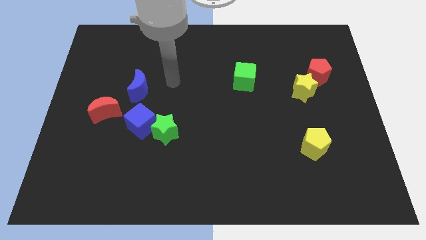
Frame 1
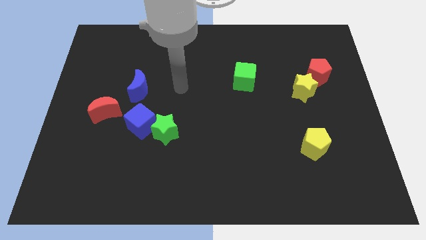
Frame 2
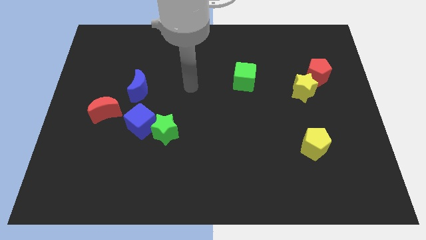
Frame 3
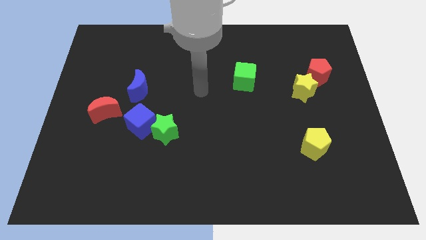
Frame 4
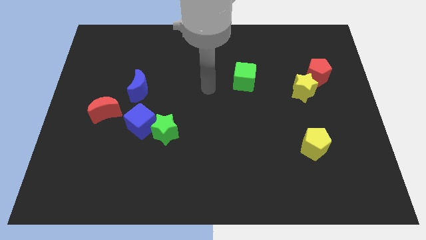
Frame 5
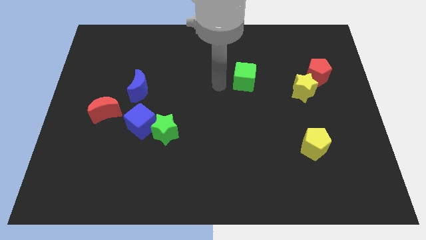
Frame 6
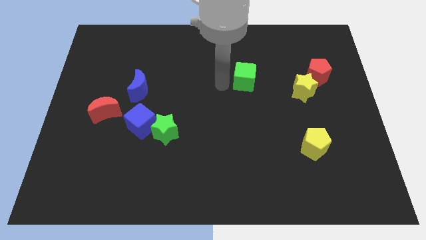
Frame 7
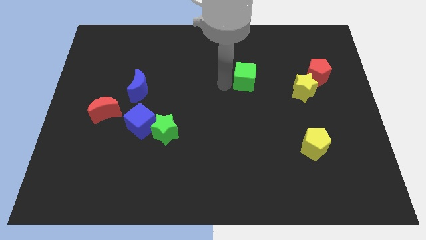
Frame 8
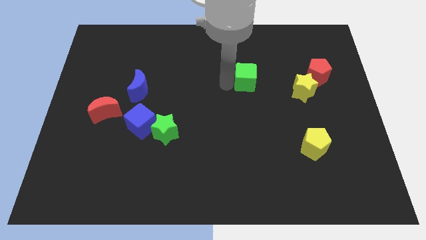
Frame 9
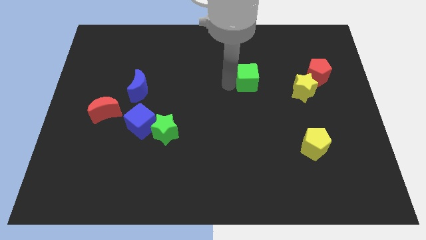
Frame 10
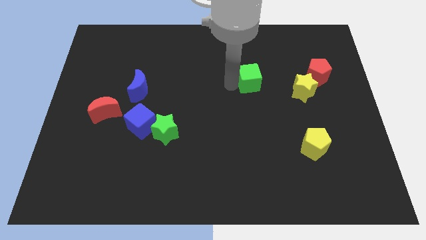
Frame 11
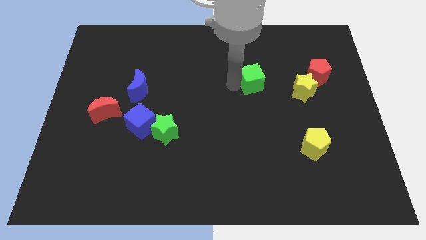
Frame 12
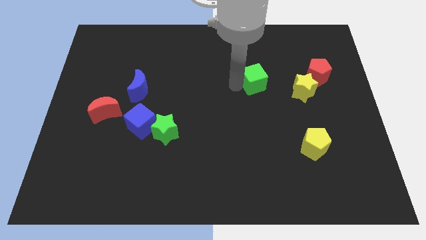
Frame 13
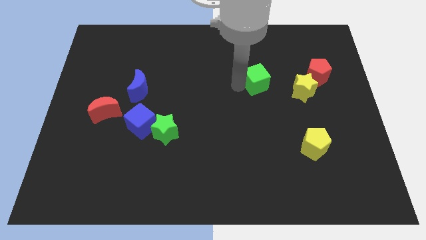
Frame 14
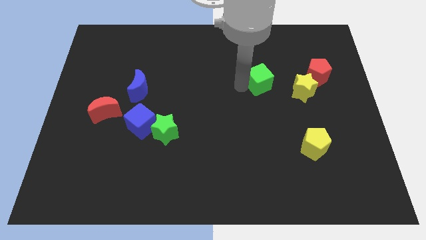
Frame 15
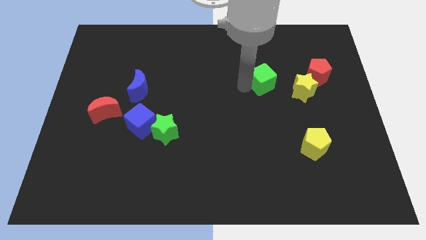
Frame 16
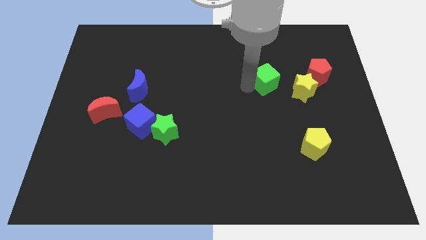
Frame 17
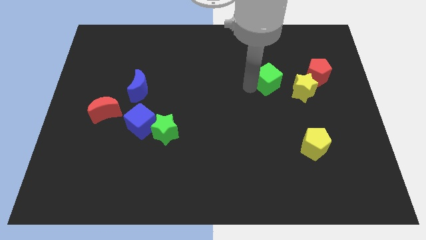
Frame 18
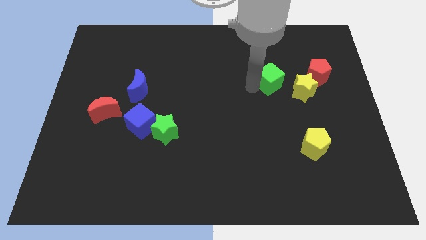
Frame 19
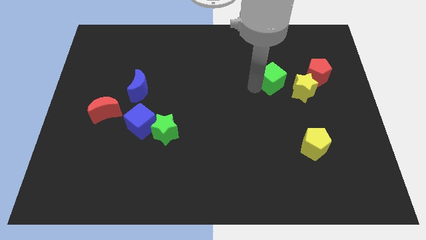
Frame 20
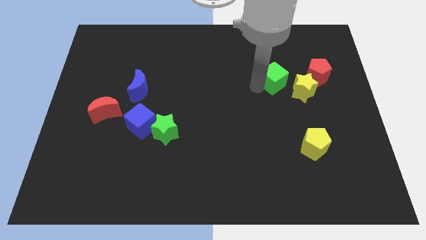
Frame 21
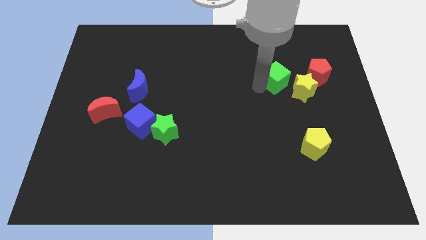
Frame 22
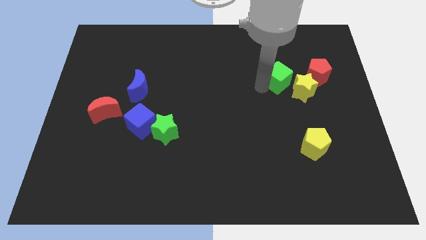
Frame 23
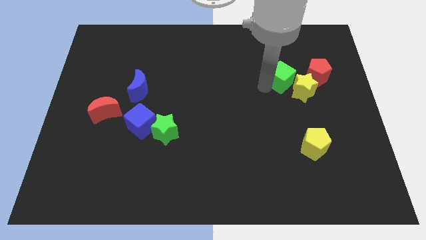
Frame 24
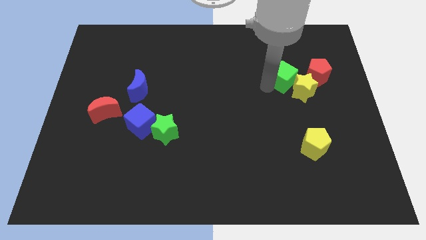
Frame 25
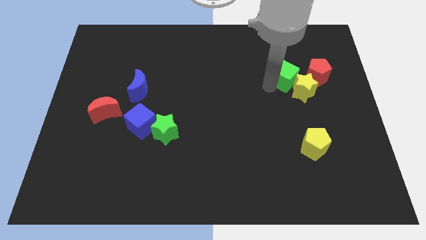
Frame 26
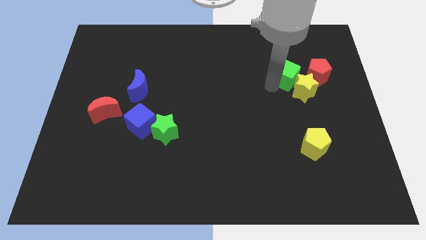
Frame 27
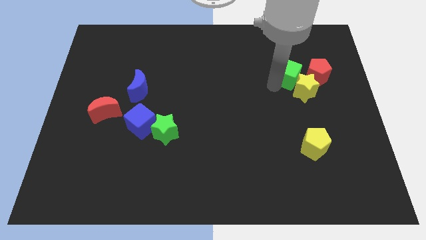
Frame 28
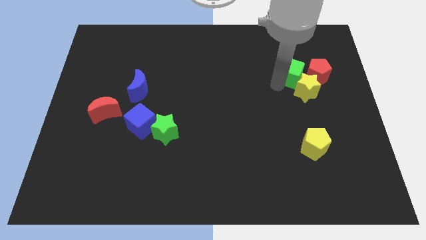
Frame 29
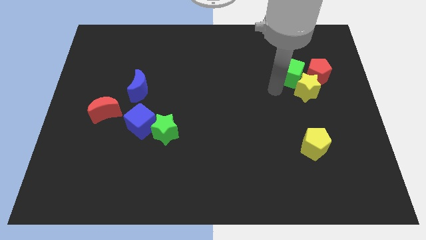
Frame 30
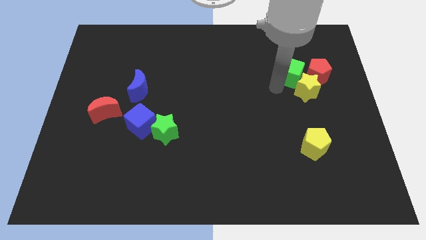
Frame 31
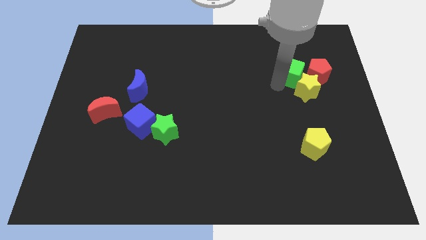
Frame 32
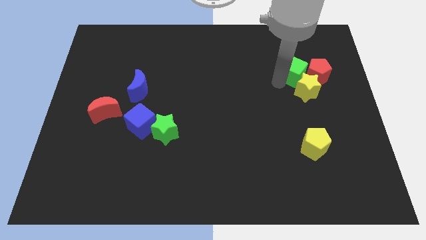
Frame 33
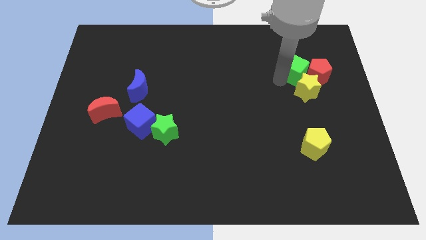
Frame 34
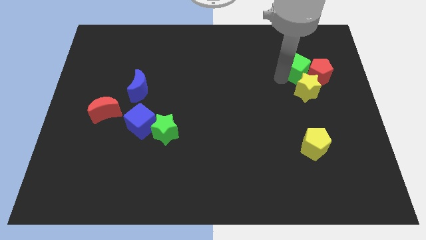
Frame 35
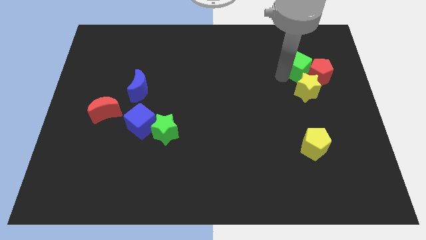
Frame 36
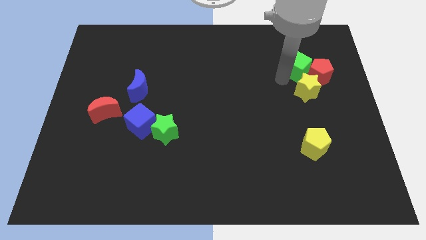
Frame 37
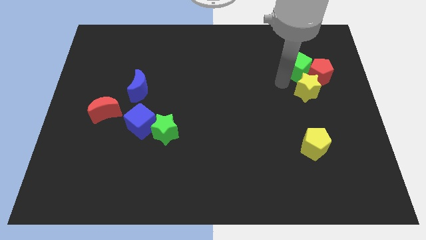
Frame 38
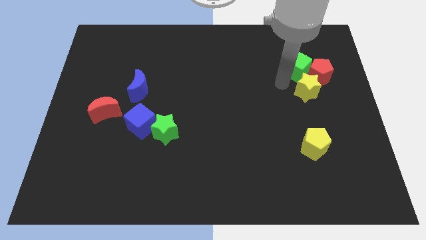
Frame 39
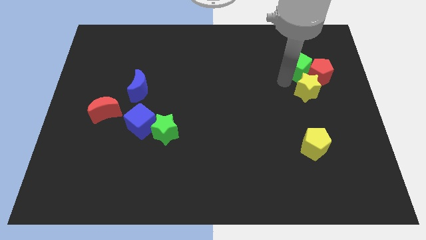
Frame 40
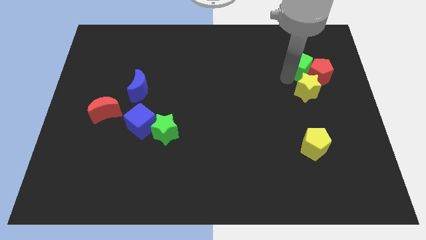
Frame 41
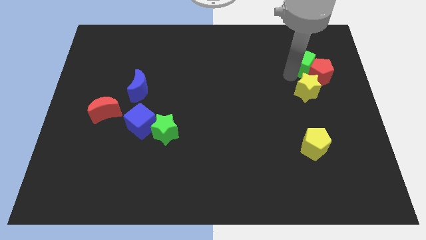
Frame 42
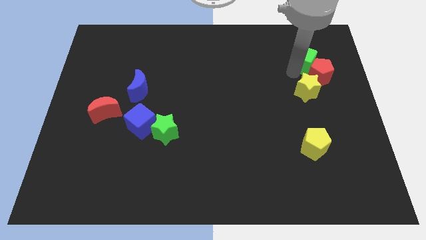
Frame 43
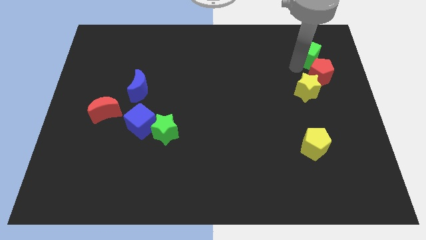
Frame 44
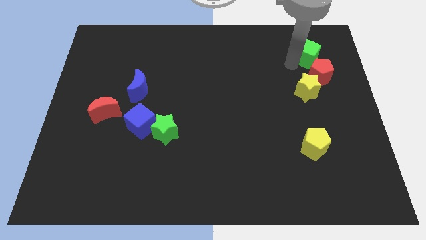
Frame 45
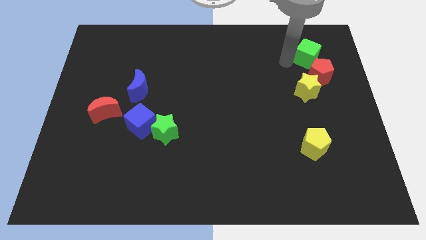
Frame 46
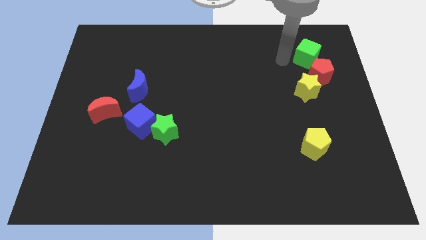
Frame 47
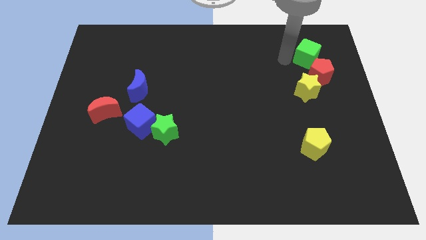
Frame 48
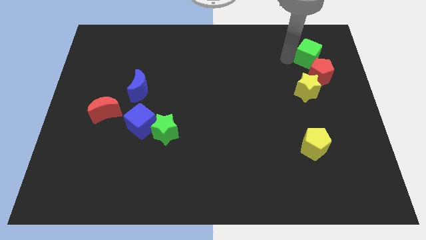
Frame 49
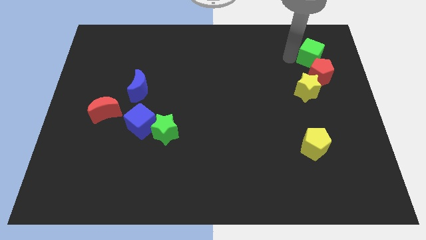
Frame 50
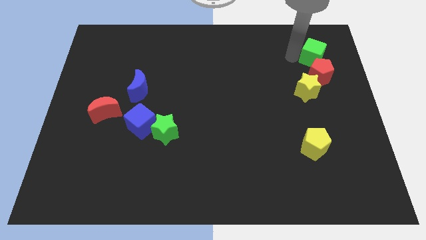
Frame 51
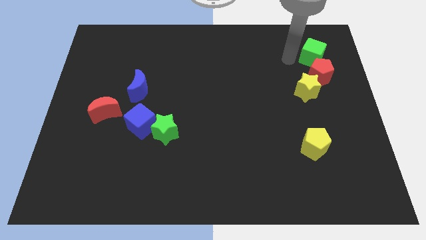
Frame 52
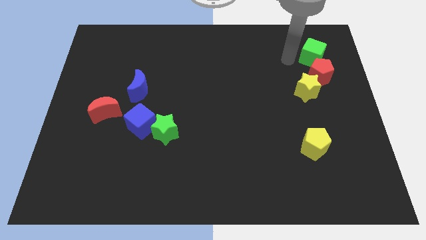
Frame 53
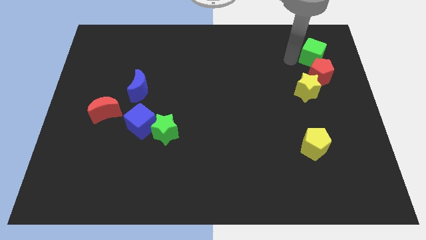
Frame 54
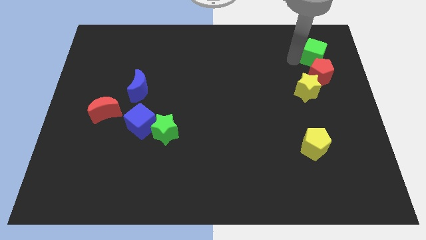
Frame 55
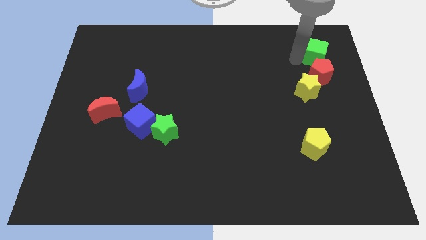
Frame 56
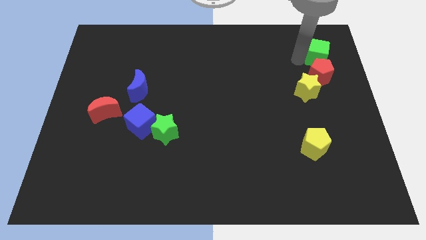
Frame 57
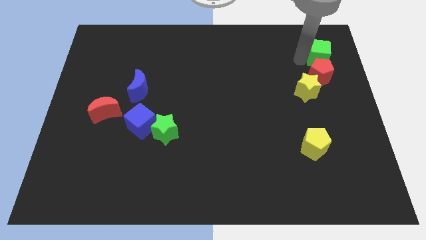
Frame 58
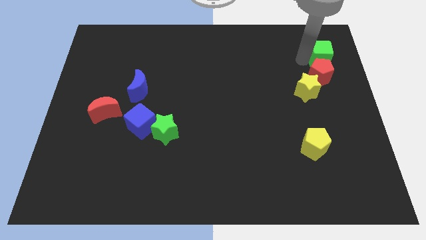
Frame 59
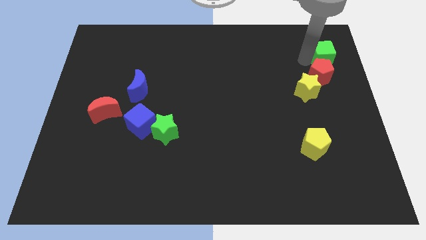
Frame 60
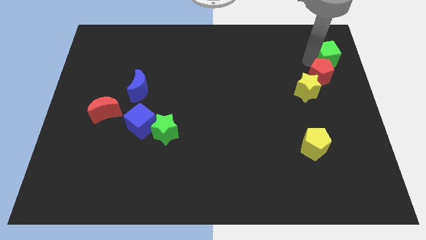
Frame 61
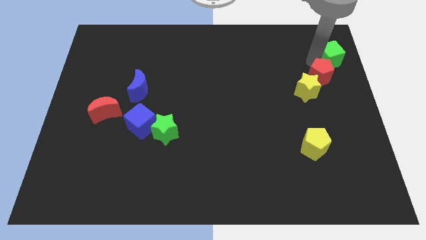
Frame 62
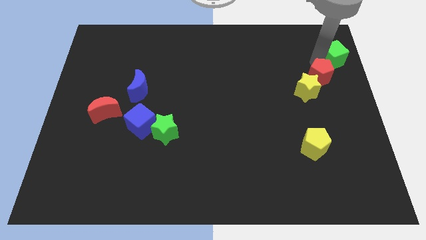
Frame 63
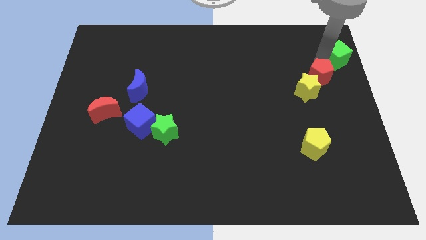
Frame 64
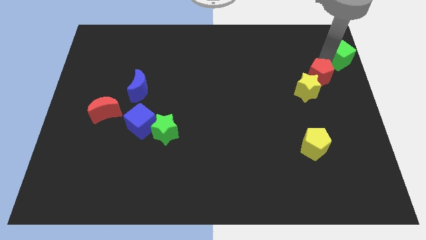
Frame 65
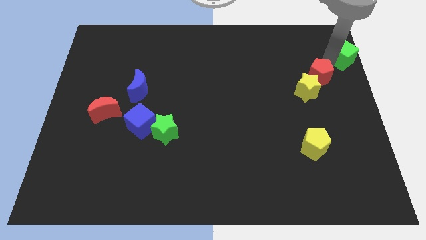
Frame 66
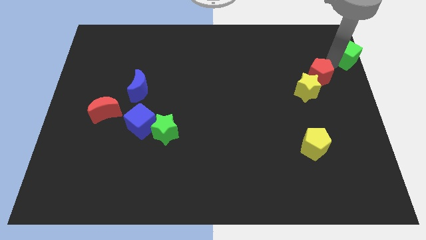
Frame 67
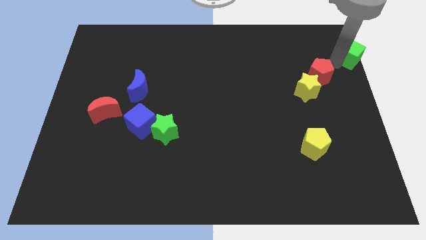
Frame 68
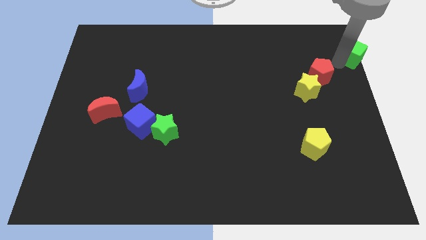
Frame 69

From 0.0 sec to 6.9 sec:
push the green cube to the upper right corner
